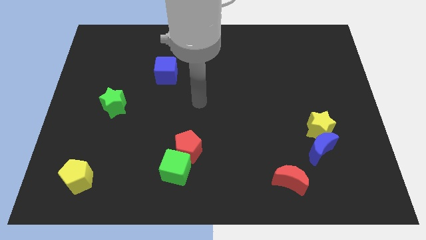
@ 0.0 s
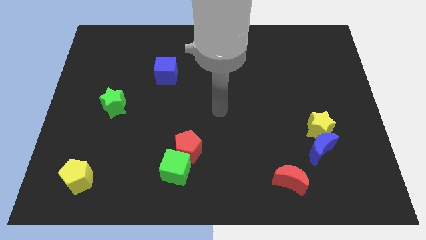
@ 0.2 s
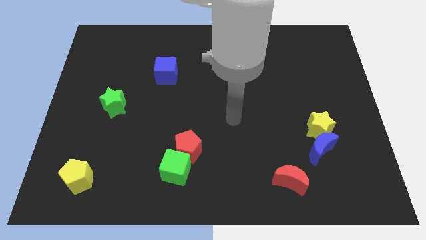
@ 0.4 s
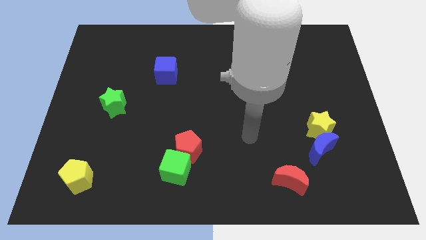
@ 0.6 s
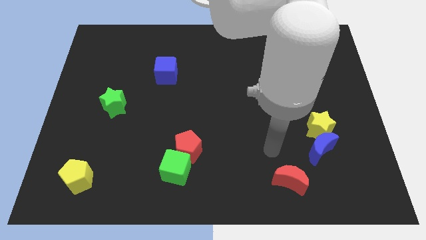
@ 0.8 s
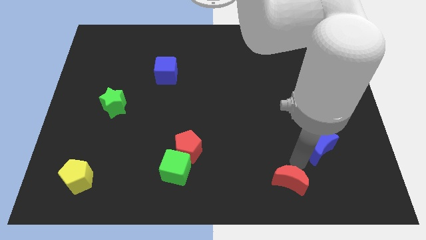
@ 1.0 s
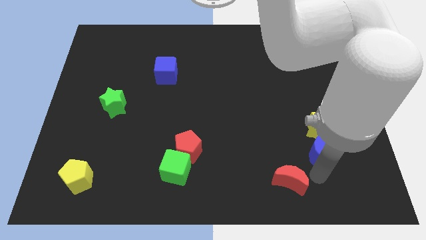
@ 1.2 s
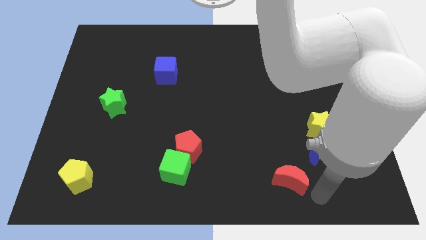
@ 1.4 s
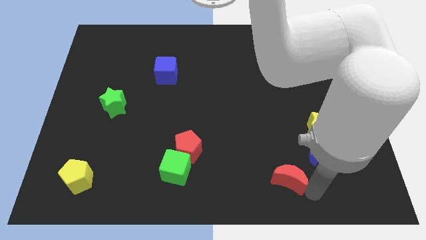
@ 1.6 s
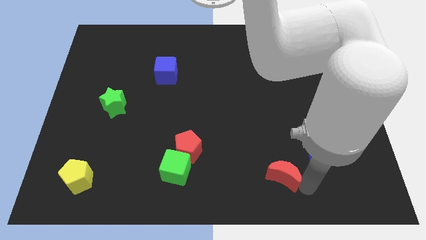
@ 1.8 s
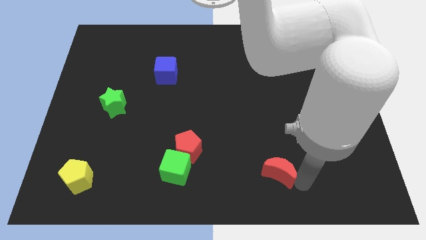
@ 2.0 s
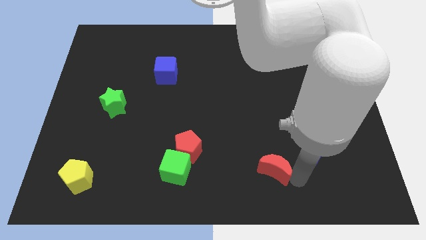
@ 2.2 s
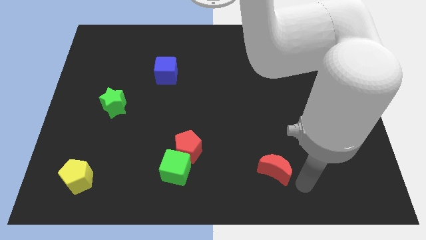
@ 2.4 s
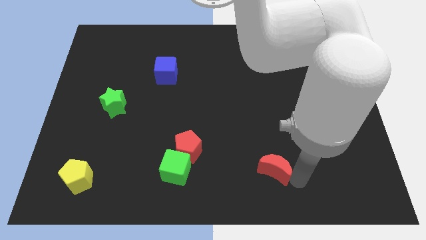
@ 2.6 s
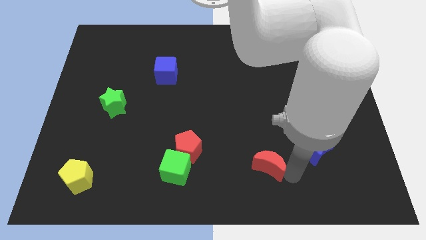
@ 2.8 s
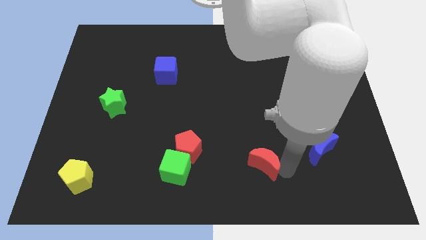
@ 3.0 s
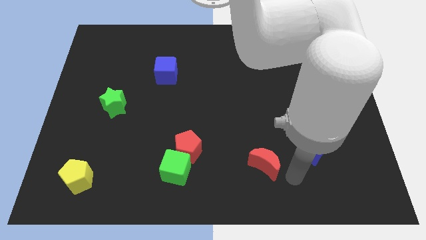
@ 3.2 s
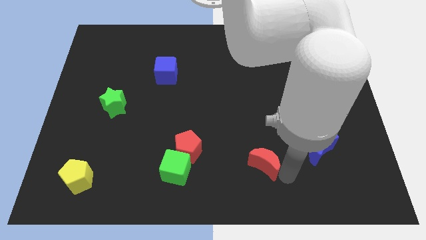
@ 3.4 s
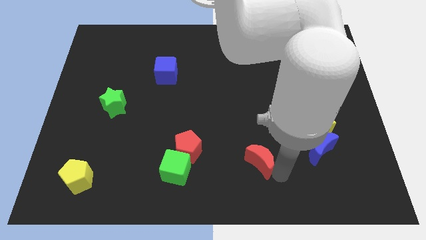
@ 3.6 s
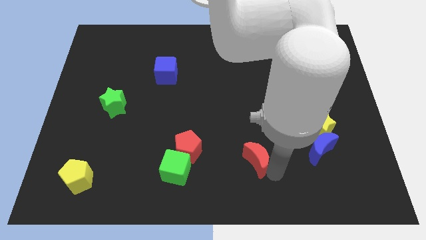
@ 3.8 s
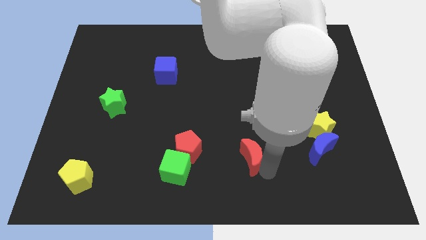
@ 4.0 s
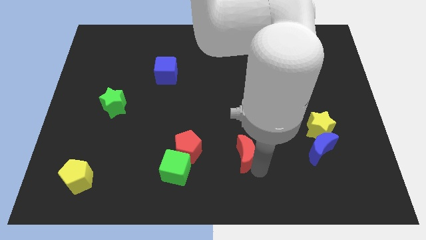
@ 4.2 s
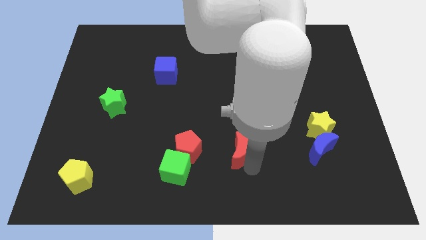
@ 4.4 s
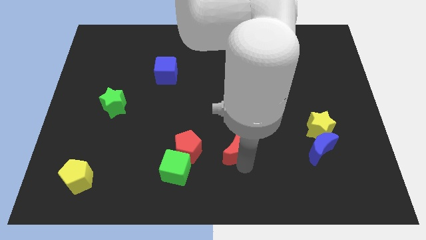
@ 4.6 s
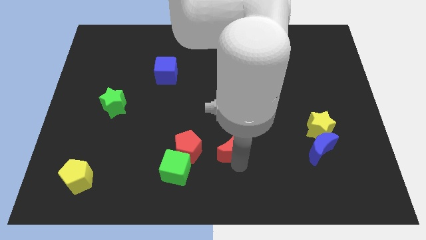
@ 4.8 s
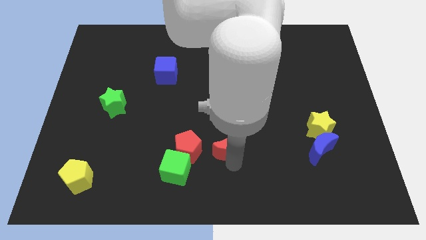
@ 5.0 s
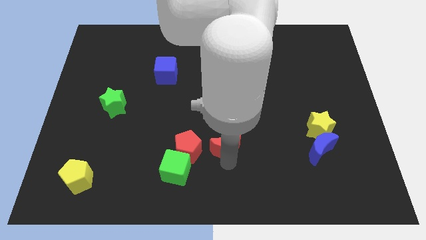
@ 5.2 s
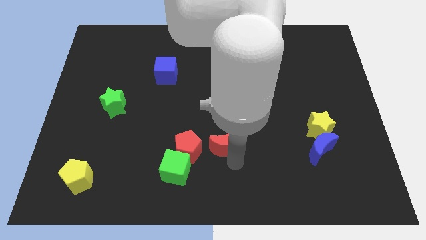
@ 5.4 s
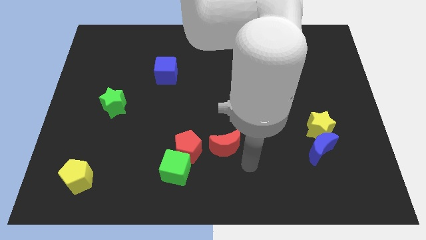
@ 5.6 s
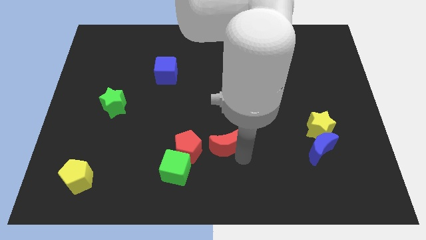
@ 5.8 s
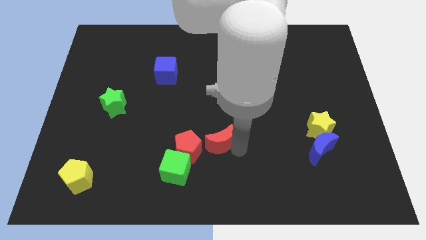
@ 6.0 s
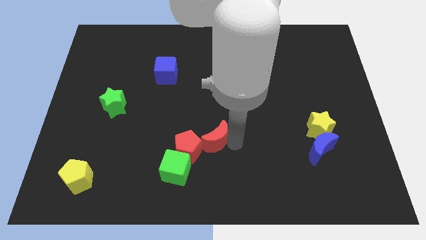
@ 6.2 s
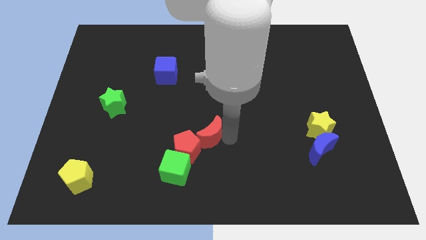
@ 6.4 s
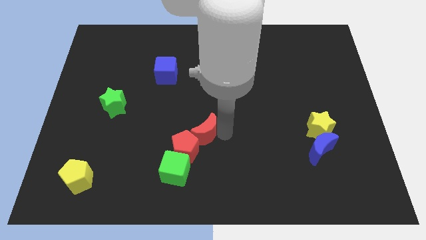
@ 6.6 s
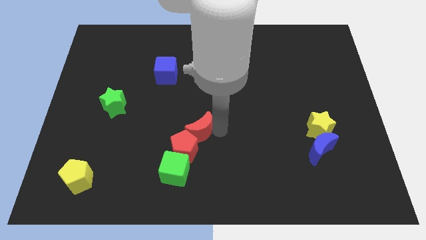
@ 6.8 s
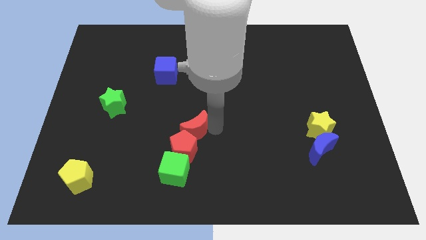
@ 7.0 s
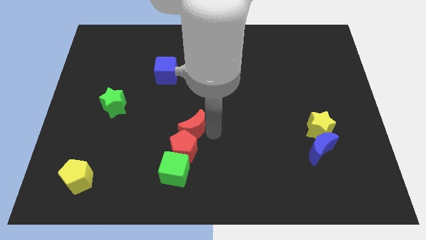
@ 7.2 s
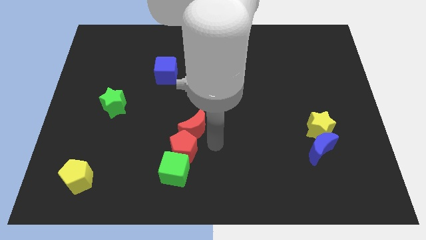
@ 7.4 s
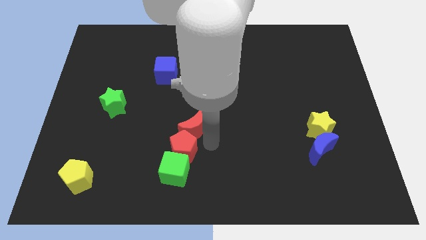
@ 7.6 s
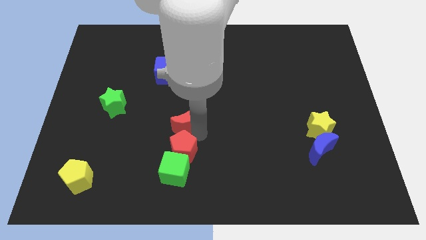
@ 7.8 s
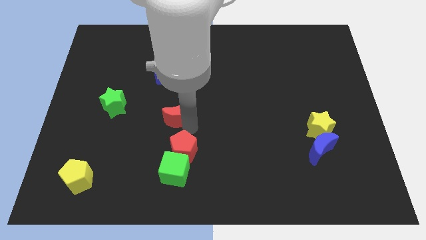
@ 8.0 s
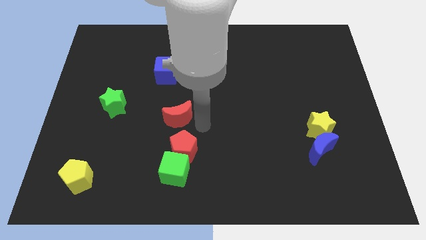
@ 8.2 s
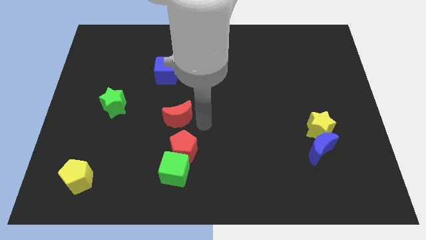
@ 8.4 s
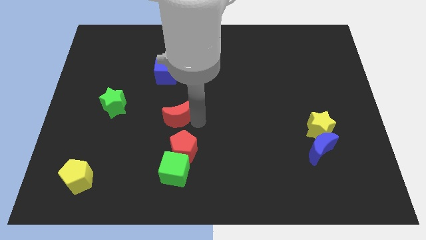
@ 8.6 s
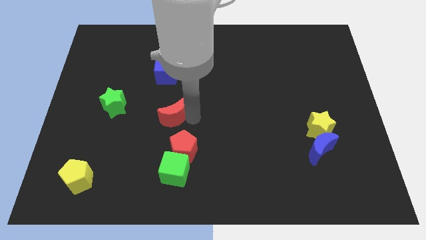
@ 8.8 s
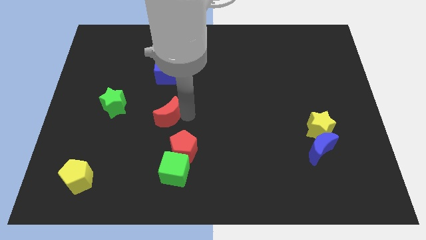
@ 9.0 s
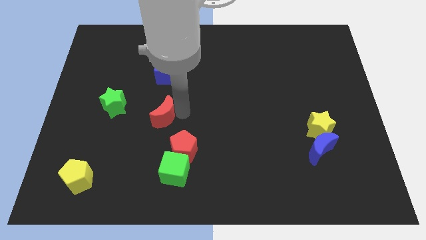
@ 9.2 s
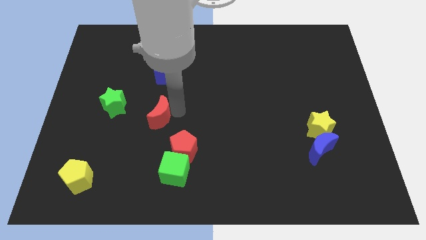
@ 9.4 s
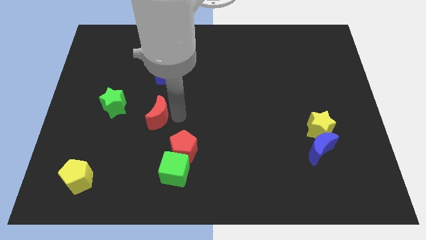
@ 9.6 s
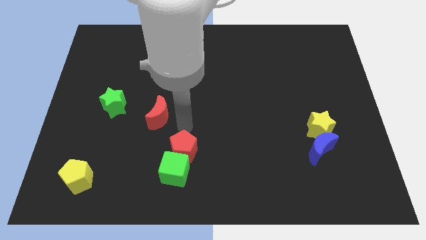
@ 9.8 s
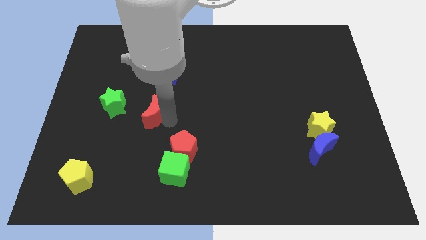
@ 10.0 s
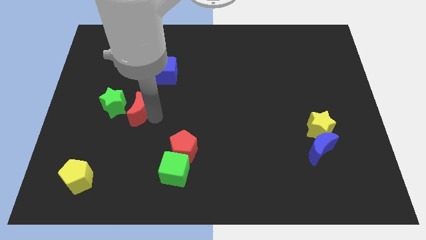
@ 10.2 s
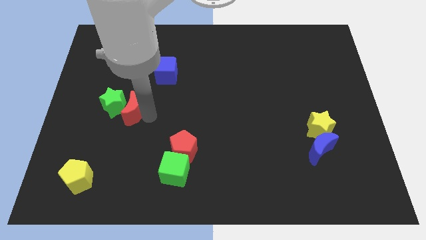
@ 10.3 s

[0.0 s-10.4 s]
slide the red moon towards the green star

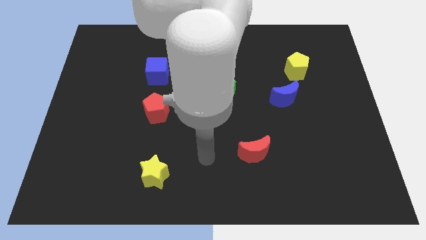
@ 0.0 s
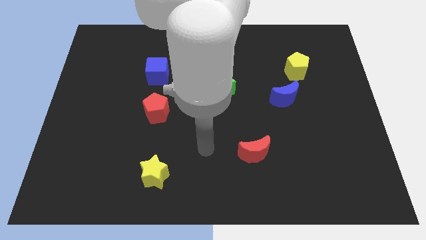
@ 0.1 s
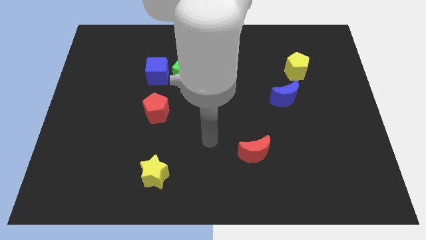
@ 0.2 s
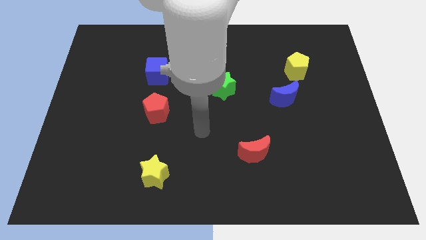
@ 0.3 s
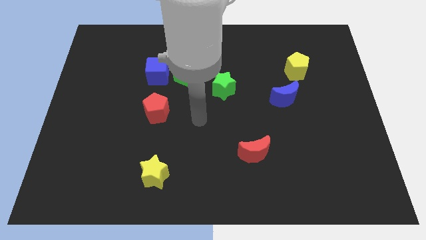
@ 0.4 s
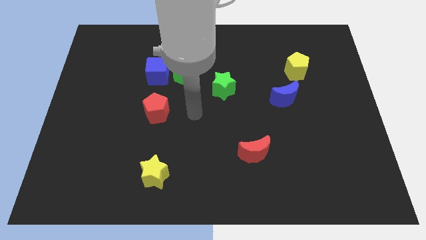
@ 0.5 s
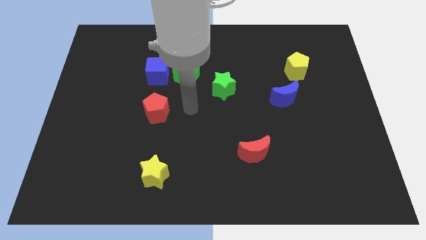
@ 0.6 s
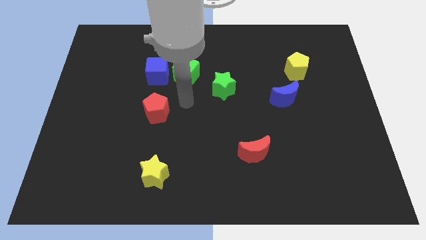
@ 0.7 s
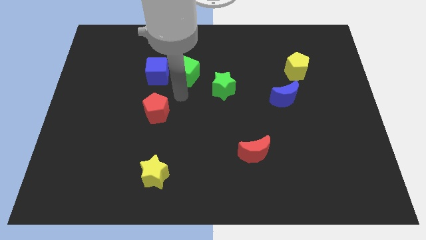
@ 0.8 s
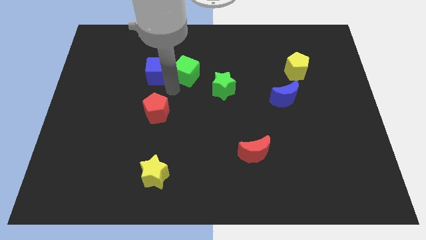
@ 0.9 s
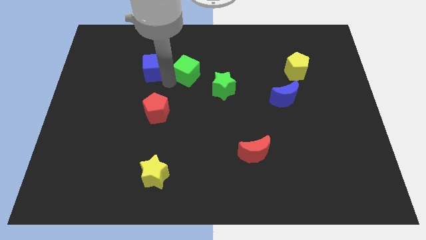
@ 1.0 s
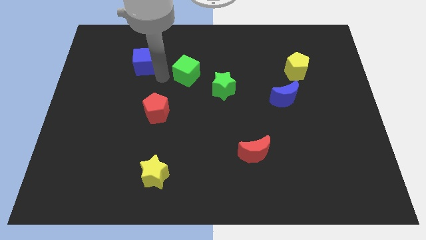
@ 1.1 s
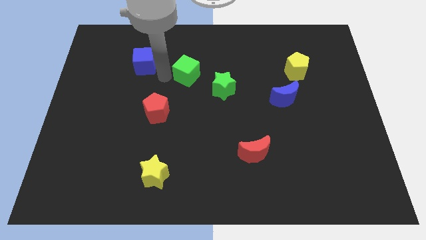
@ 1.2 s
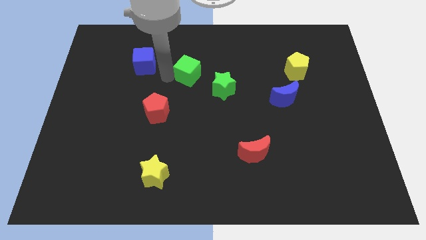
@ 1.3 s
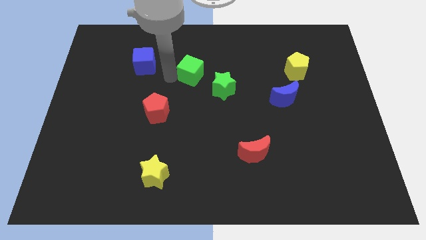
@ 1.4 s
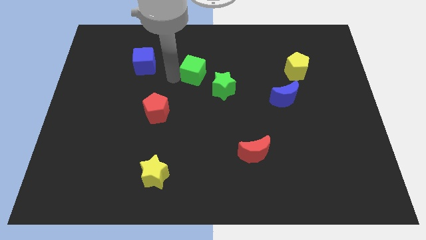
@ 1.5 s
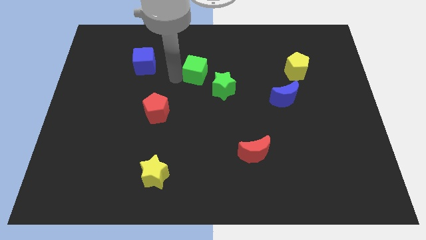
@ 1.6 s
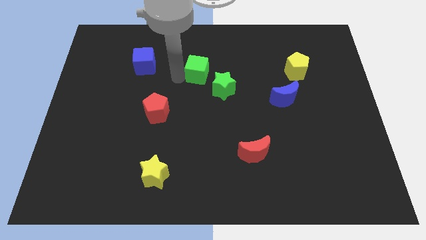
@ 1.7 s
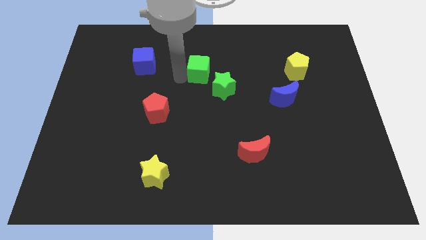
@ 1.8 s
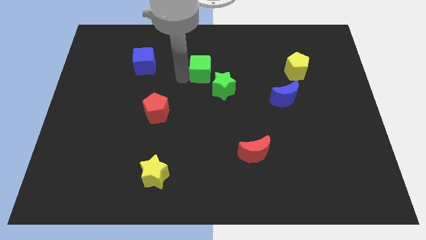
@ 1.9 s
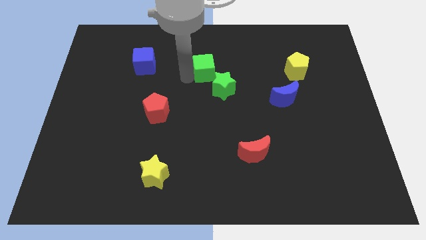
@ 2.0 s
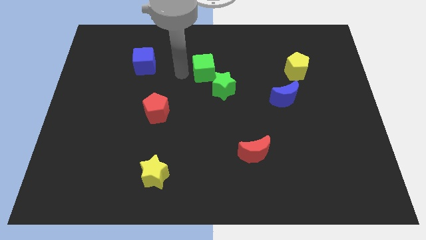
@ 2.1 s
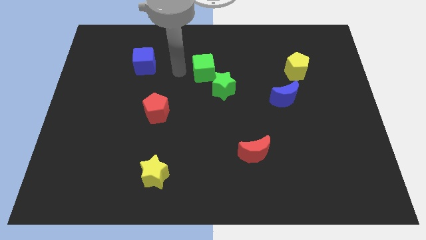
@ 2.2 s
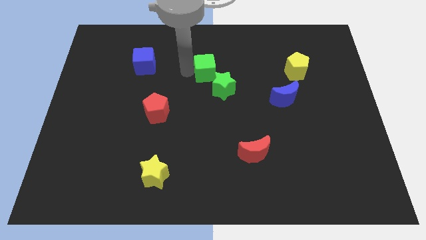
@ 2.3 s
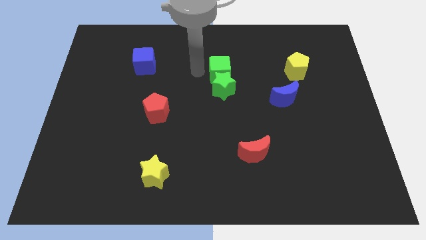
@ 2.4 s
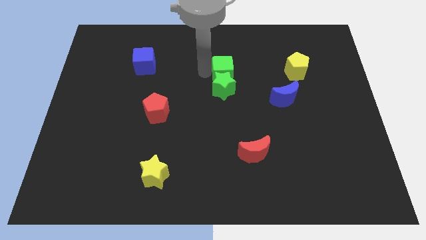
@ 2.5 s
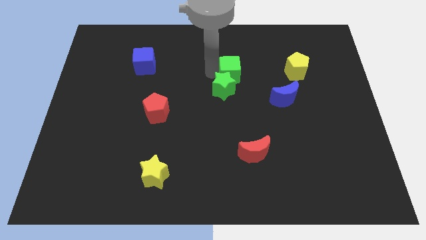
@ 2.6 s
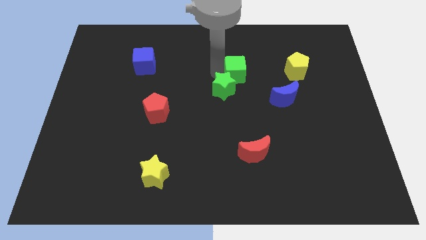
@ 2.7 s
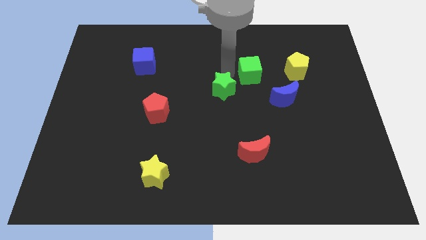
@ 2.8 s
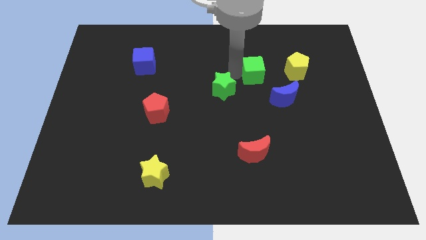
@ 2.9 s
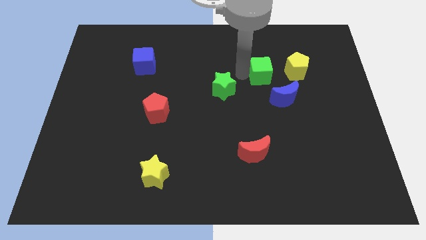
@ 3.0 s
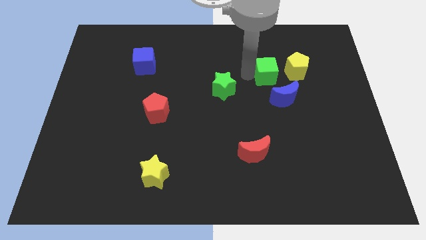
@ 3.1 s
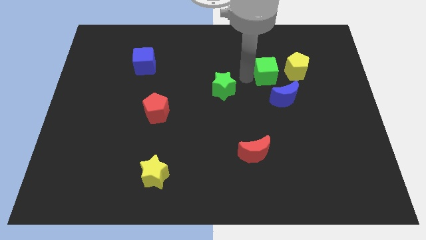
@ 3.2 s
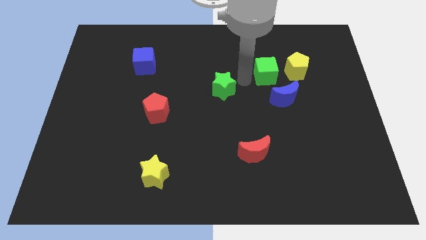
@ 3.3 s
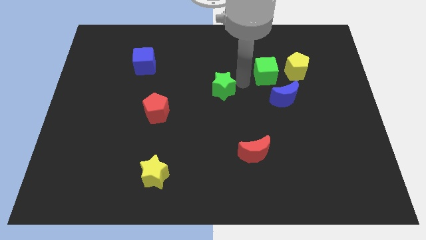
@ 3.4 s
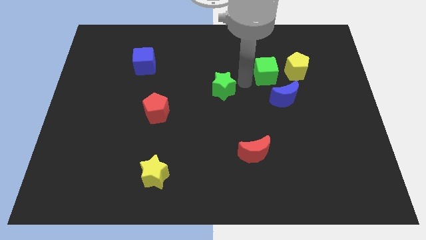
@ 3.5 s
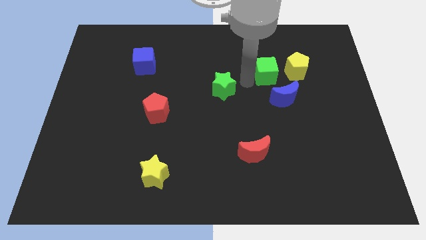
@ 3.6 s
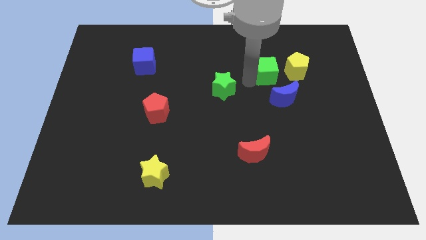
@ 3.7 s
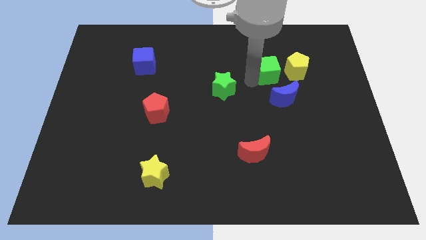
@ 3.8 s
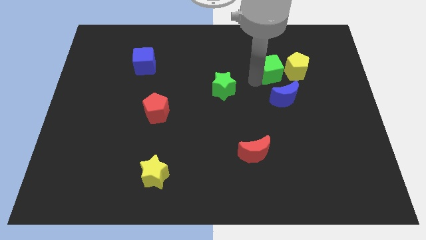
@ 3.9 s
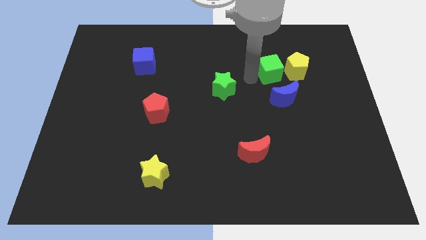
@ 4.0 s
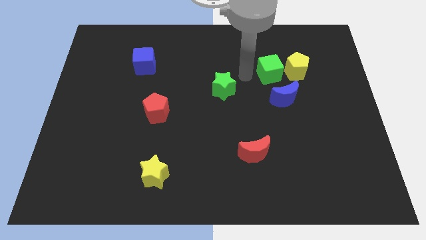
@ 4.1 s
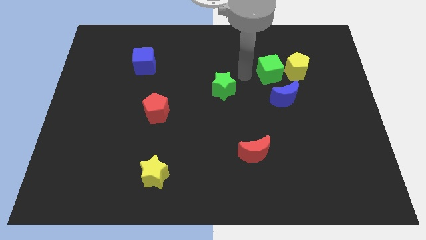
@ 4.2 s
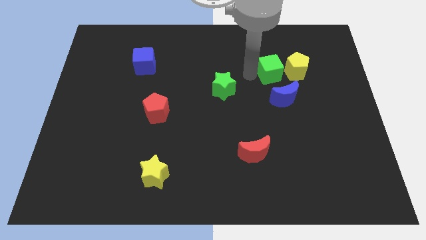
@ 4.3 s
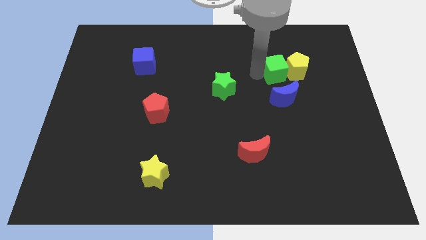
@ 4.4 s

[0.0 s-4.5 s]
push the green cube towards the yellow pentagon
